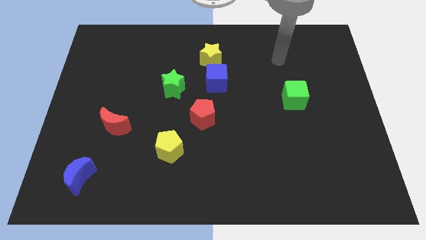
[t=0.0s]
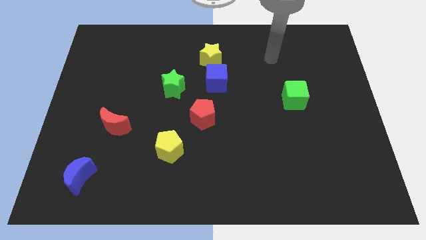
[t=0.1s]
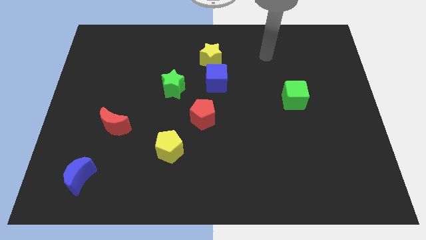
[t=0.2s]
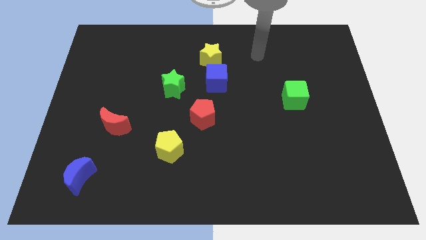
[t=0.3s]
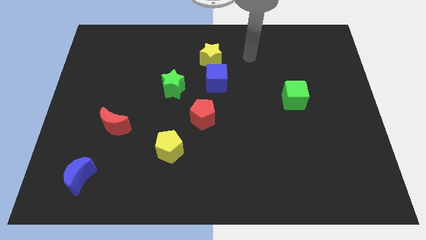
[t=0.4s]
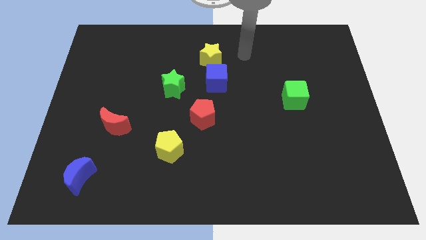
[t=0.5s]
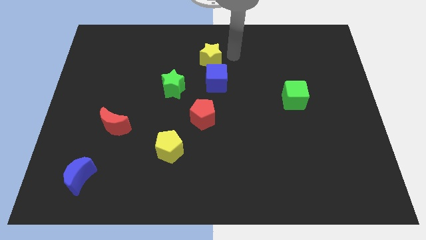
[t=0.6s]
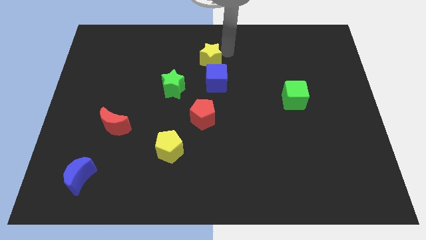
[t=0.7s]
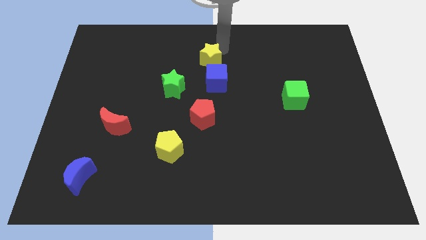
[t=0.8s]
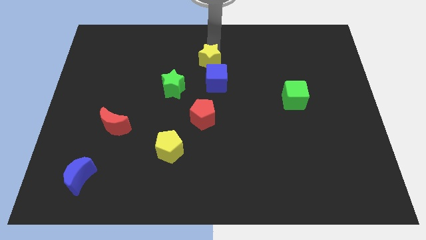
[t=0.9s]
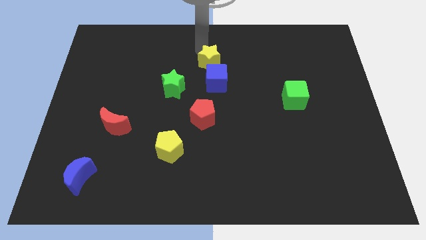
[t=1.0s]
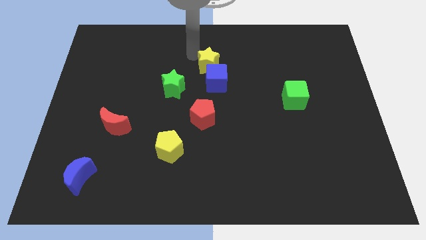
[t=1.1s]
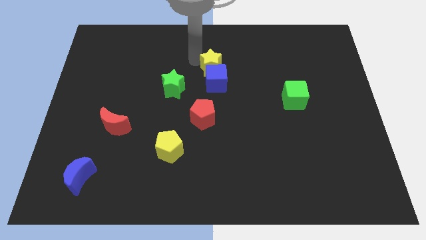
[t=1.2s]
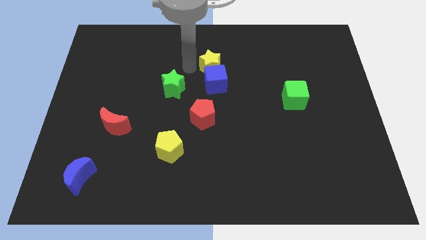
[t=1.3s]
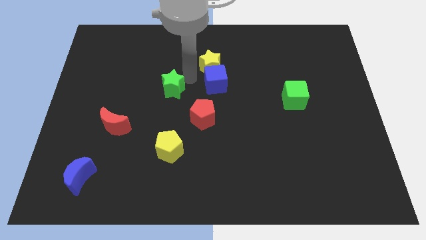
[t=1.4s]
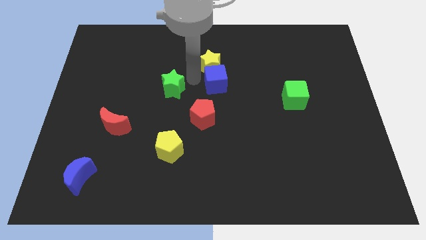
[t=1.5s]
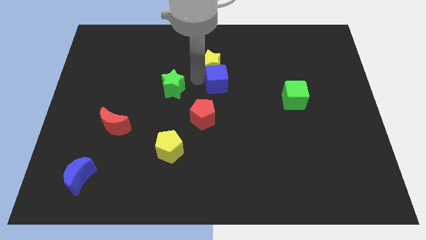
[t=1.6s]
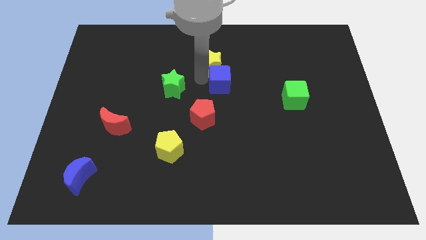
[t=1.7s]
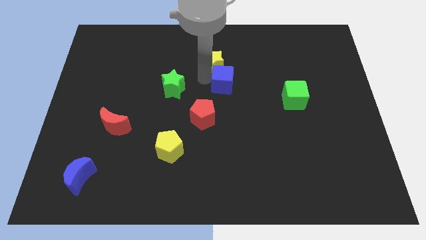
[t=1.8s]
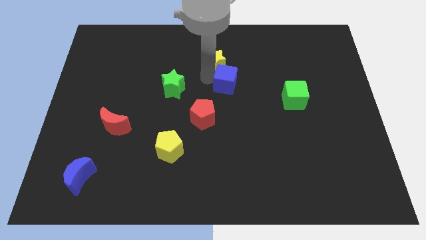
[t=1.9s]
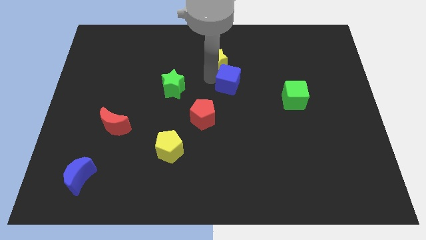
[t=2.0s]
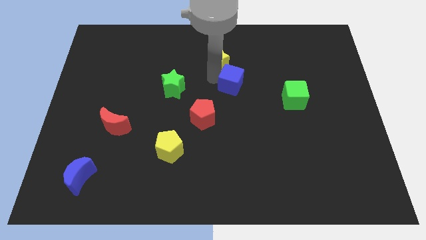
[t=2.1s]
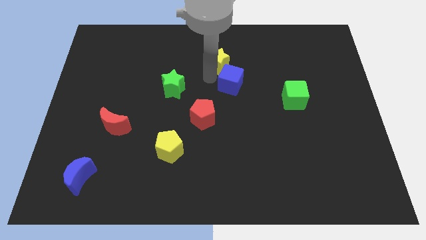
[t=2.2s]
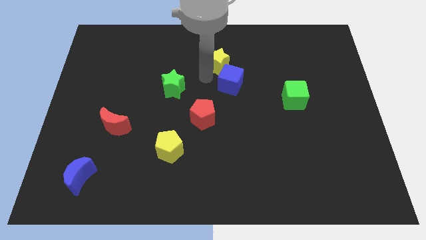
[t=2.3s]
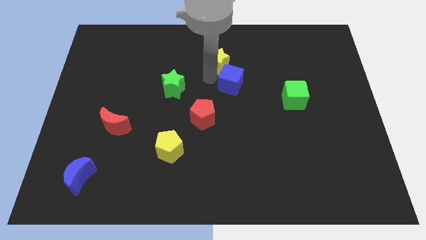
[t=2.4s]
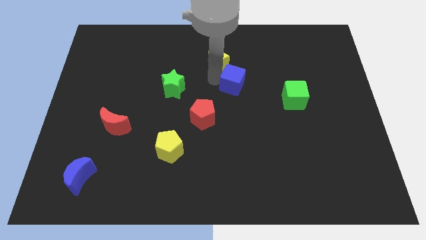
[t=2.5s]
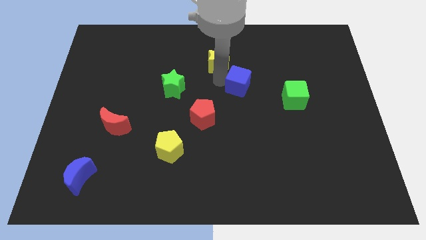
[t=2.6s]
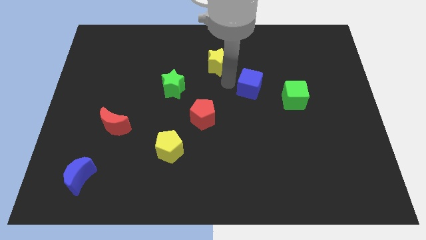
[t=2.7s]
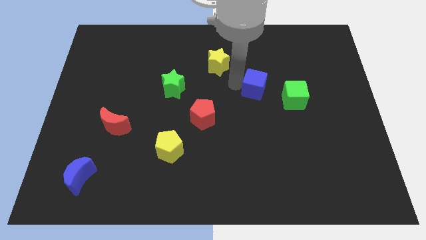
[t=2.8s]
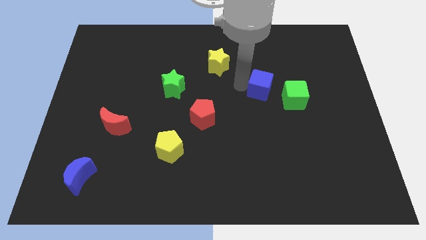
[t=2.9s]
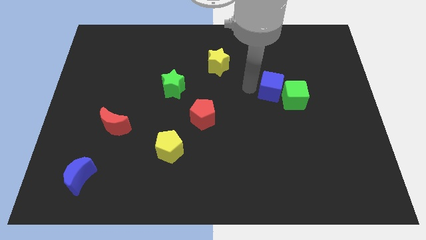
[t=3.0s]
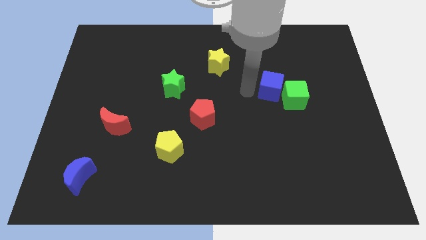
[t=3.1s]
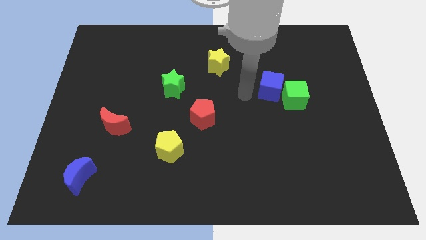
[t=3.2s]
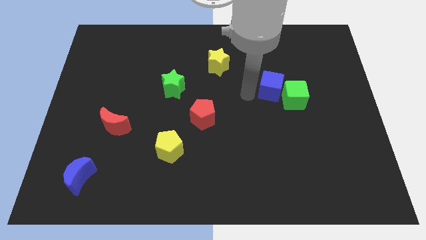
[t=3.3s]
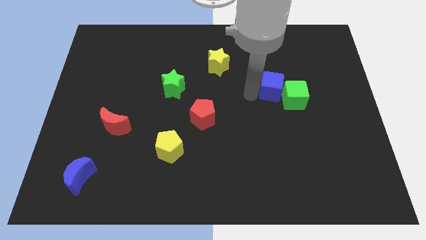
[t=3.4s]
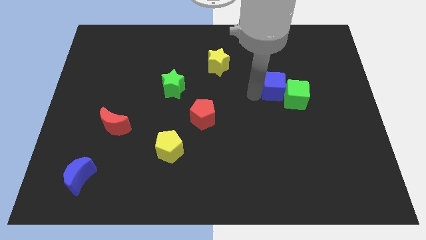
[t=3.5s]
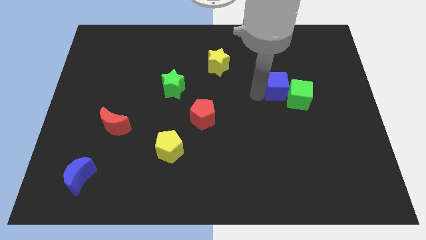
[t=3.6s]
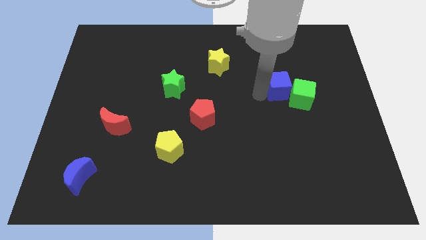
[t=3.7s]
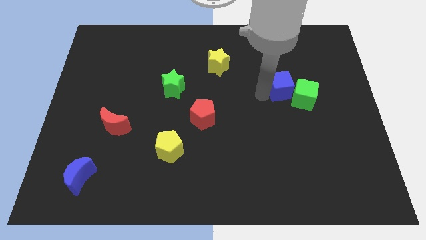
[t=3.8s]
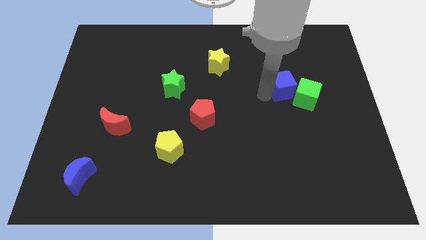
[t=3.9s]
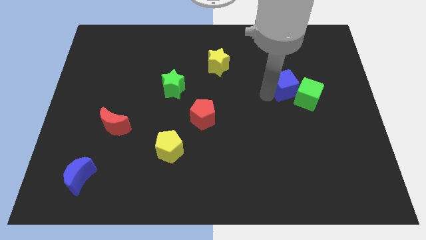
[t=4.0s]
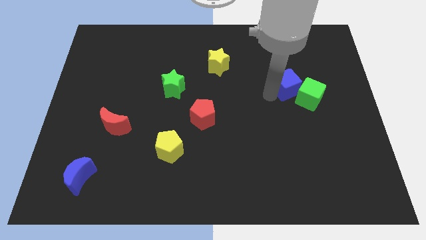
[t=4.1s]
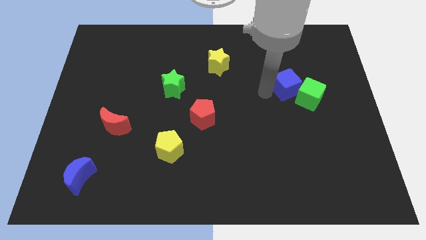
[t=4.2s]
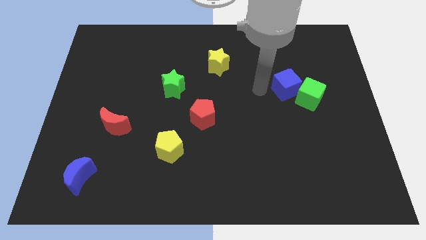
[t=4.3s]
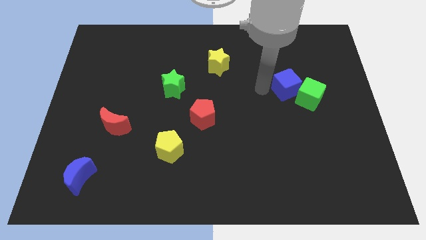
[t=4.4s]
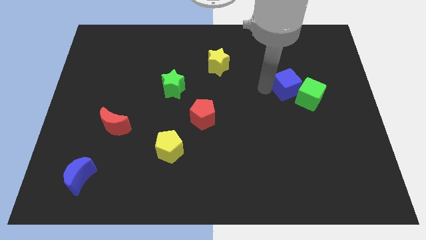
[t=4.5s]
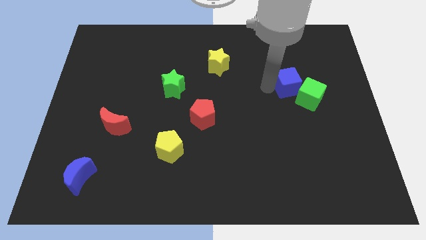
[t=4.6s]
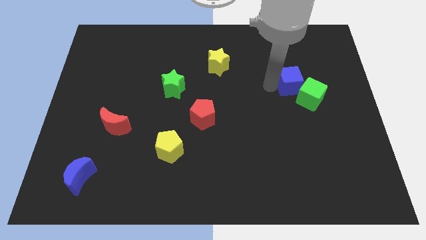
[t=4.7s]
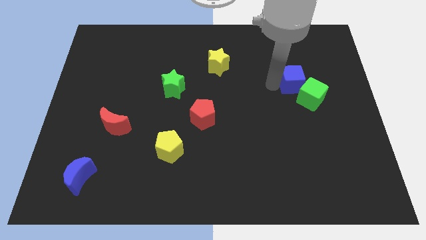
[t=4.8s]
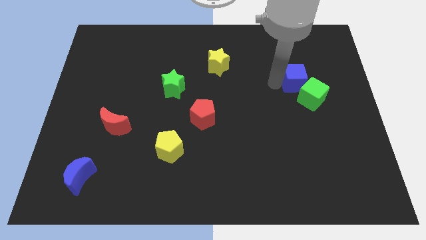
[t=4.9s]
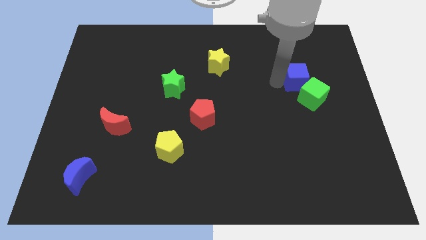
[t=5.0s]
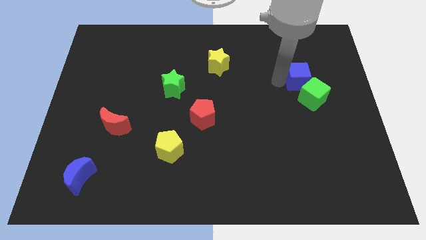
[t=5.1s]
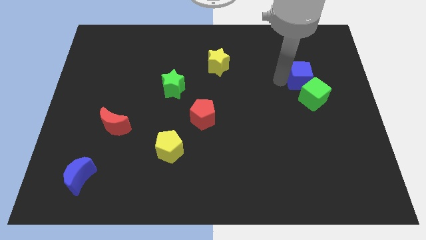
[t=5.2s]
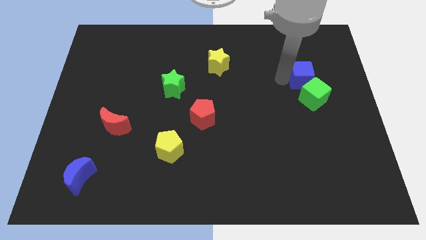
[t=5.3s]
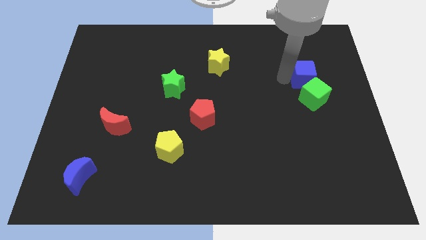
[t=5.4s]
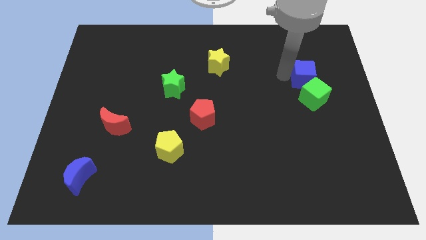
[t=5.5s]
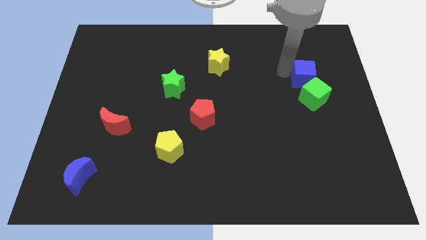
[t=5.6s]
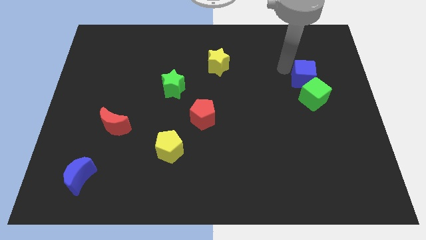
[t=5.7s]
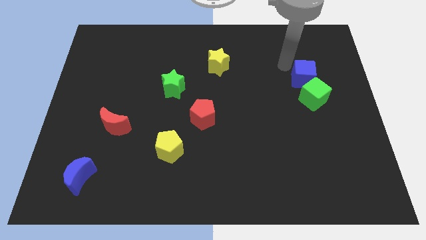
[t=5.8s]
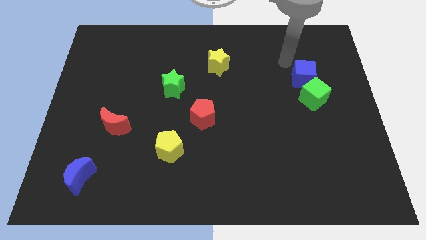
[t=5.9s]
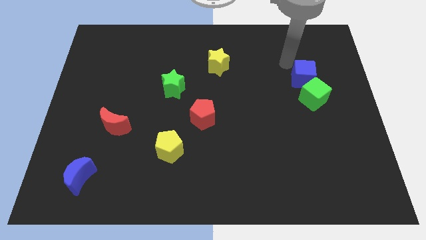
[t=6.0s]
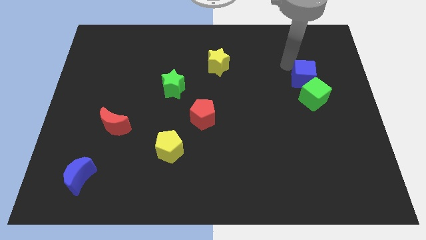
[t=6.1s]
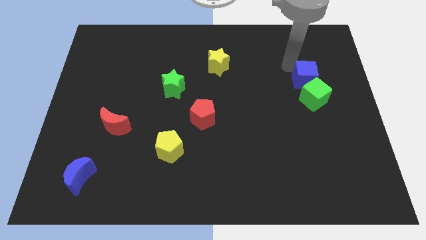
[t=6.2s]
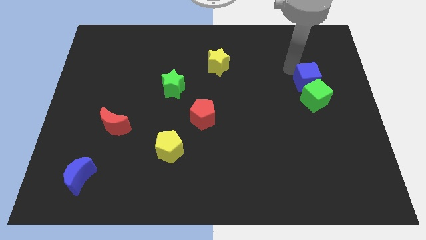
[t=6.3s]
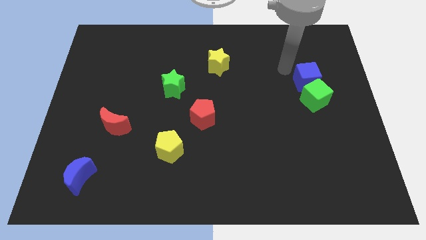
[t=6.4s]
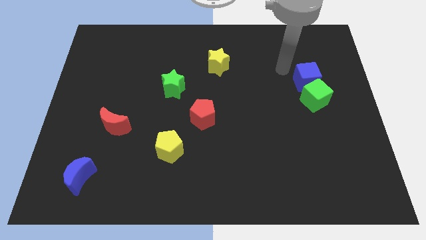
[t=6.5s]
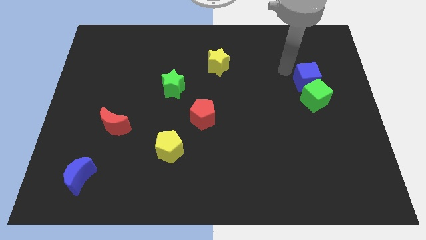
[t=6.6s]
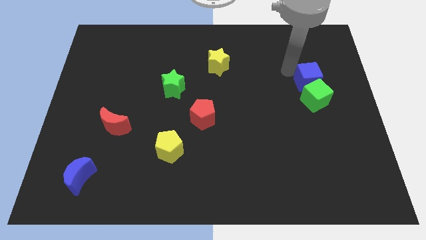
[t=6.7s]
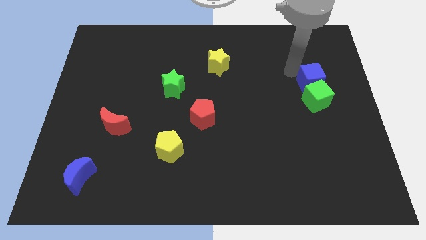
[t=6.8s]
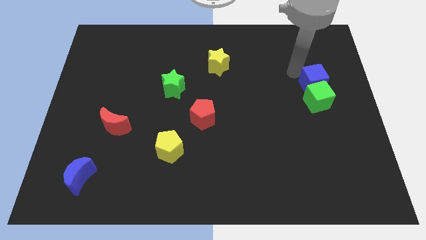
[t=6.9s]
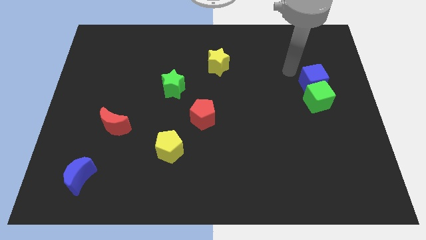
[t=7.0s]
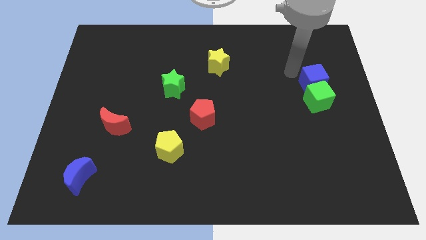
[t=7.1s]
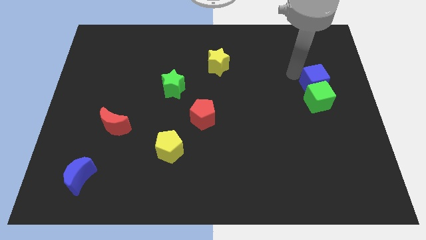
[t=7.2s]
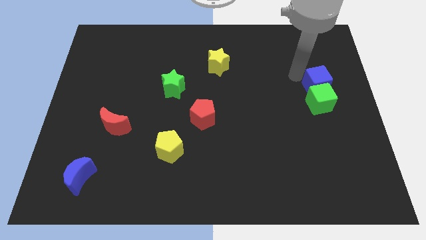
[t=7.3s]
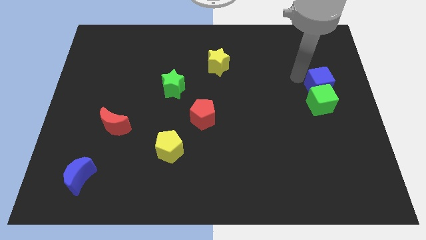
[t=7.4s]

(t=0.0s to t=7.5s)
push the blue cube to the center right

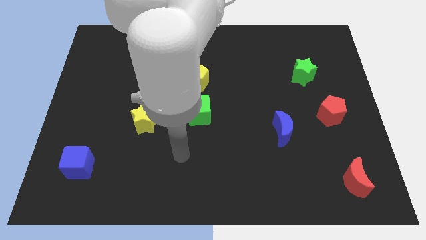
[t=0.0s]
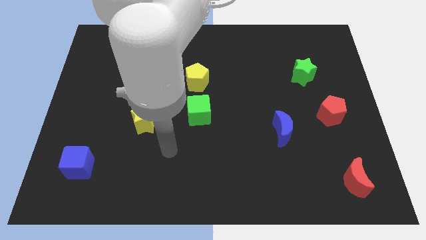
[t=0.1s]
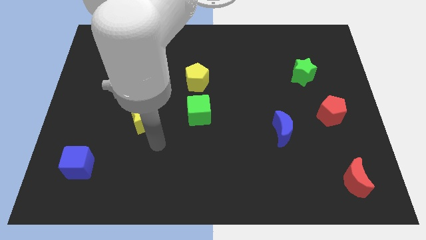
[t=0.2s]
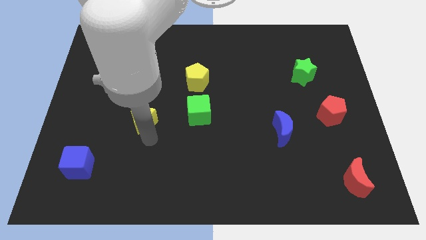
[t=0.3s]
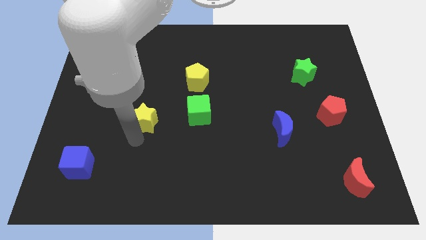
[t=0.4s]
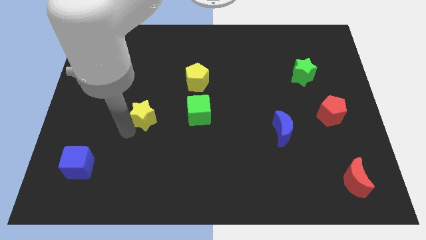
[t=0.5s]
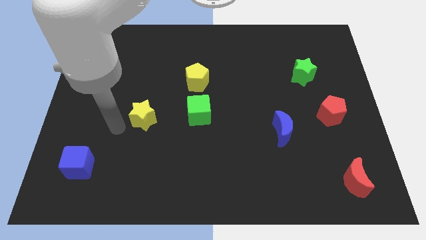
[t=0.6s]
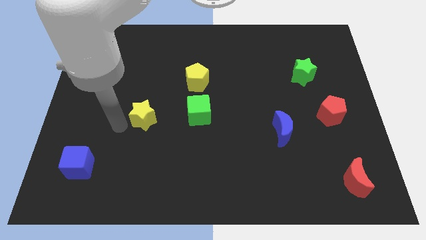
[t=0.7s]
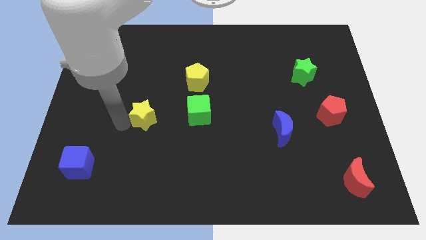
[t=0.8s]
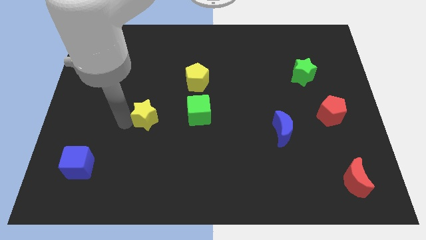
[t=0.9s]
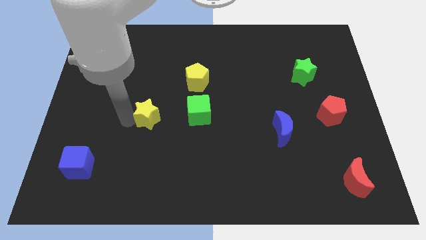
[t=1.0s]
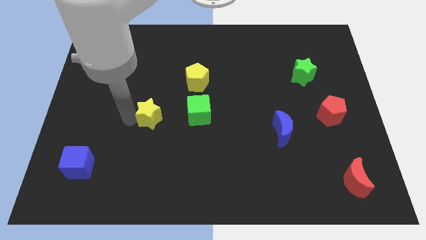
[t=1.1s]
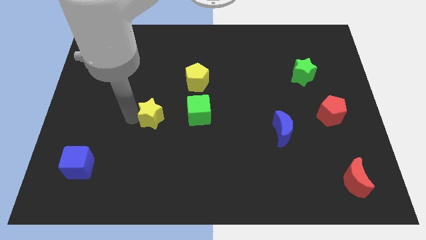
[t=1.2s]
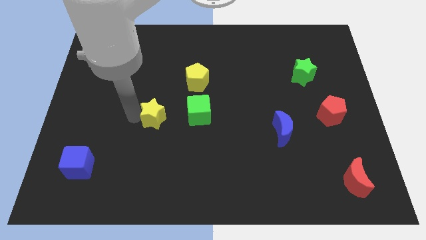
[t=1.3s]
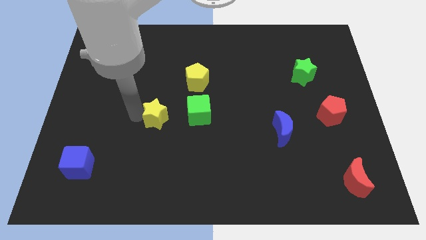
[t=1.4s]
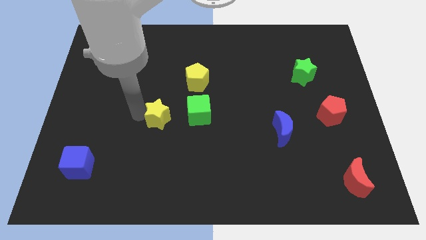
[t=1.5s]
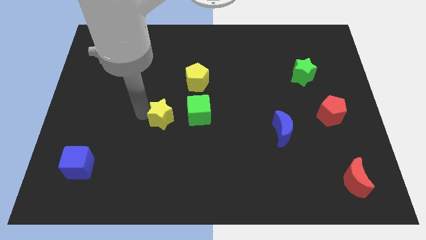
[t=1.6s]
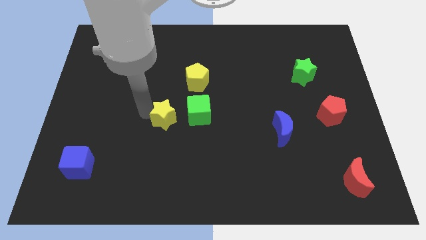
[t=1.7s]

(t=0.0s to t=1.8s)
move the yellow star to the center
